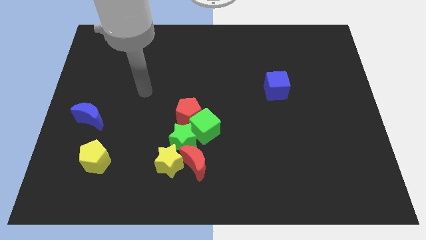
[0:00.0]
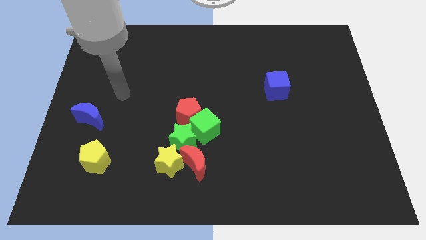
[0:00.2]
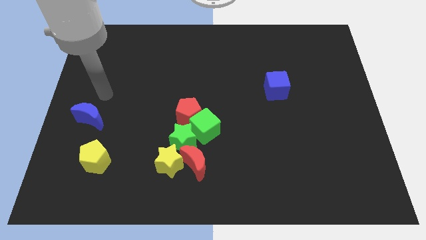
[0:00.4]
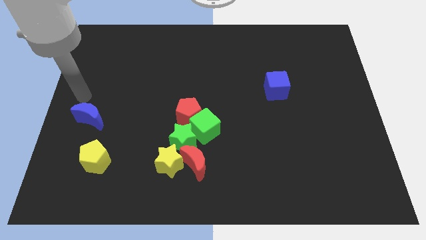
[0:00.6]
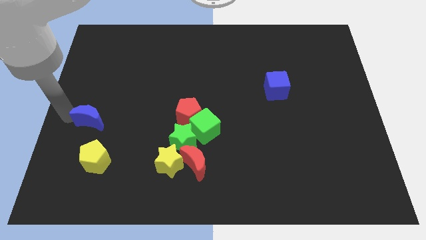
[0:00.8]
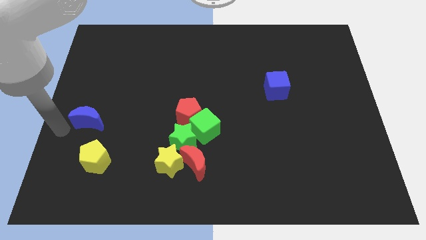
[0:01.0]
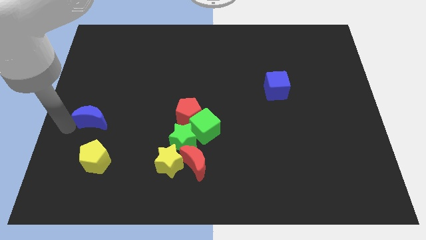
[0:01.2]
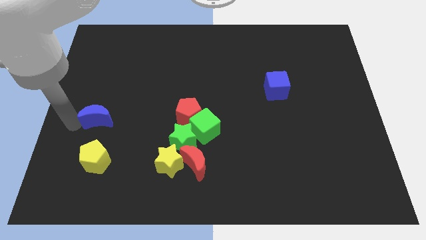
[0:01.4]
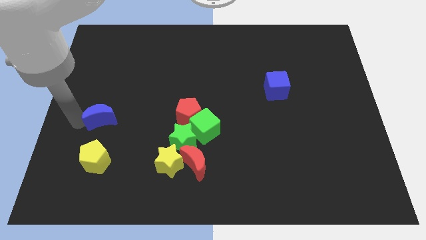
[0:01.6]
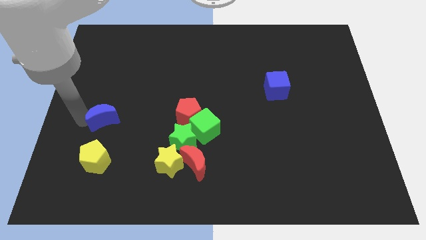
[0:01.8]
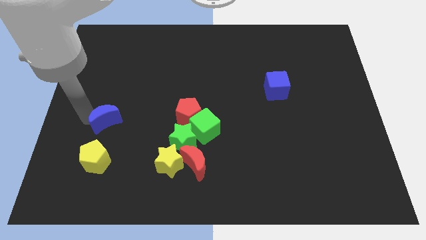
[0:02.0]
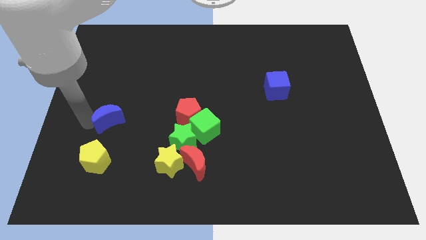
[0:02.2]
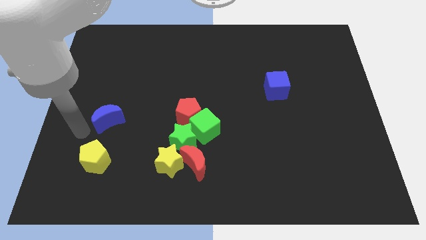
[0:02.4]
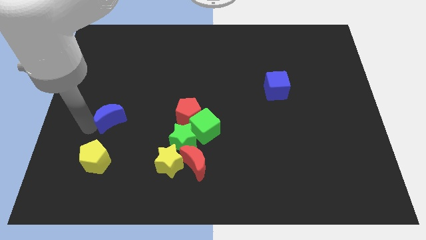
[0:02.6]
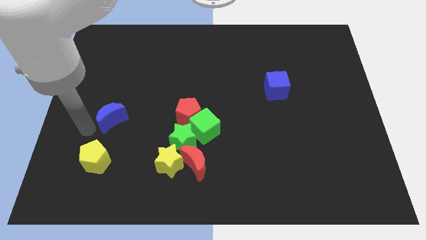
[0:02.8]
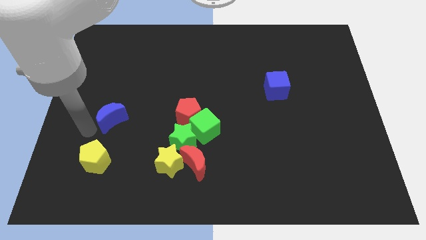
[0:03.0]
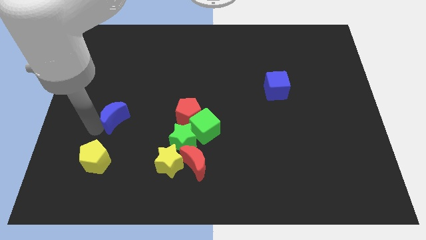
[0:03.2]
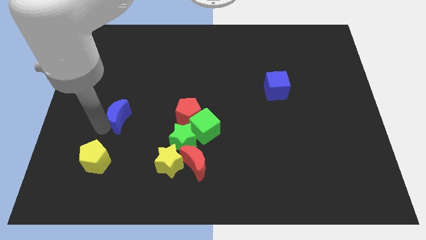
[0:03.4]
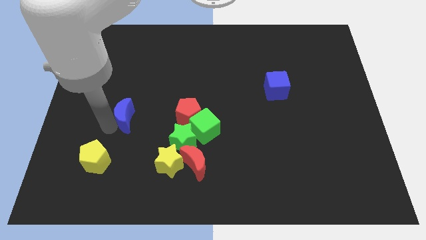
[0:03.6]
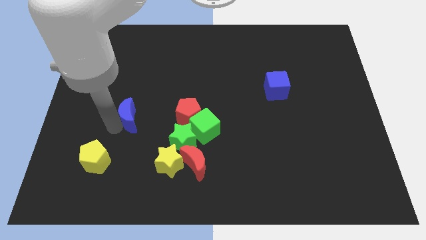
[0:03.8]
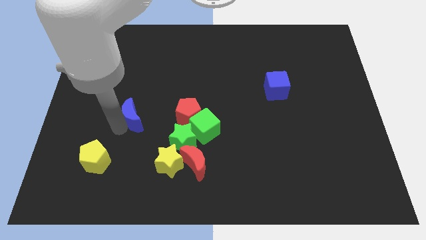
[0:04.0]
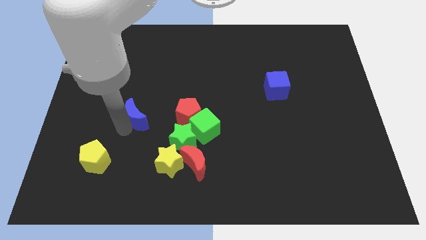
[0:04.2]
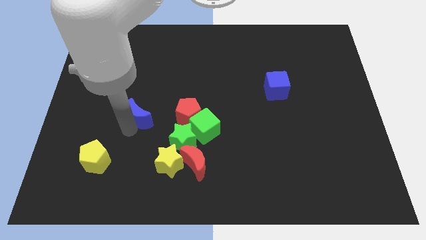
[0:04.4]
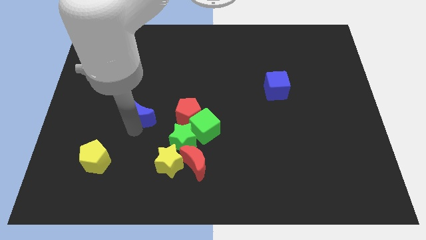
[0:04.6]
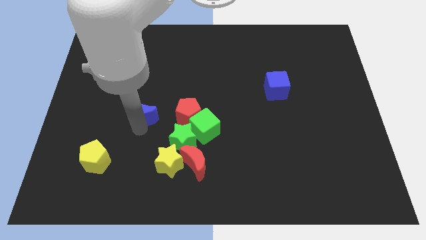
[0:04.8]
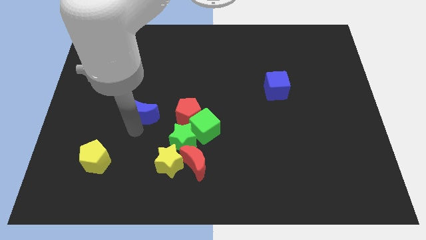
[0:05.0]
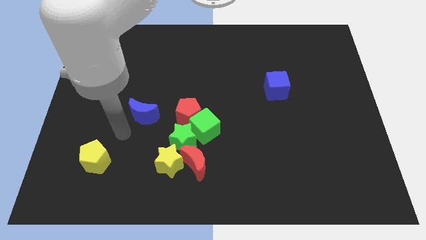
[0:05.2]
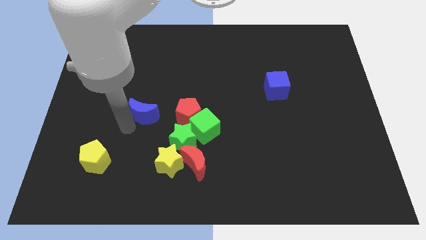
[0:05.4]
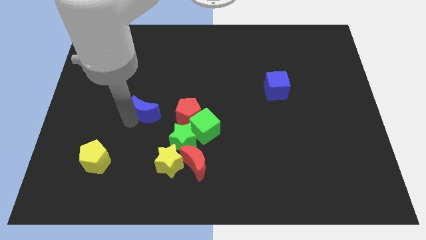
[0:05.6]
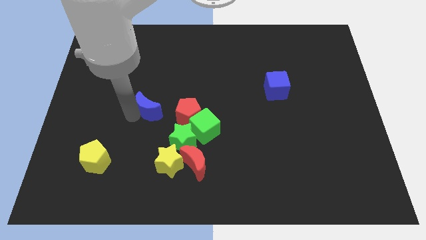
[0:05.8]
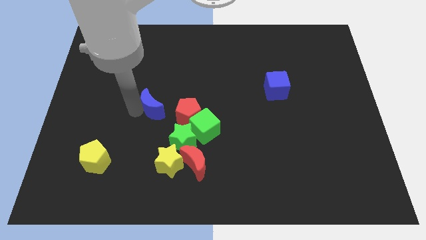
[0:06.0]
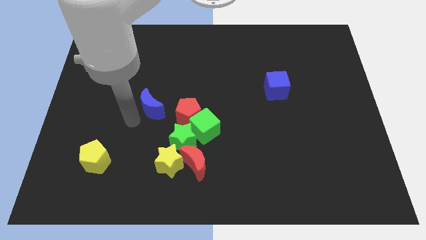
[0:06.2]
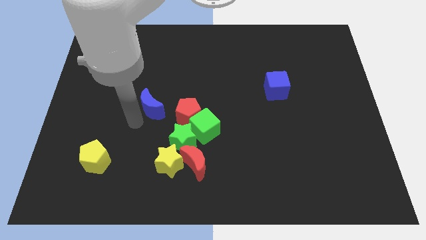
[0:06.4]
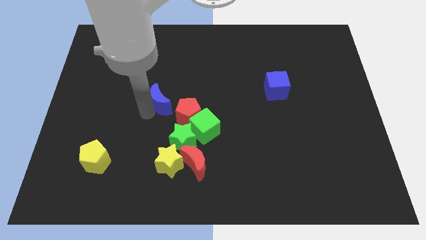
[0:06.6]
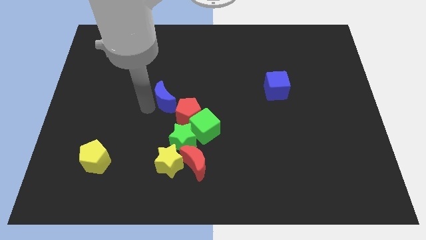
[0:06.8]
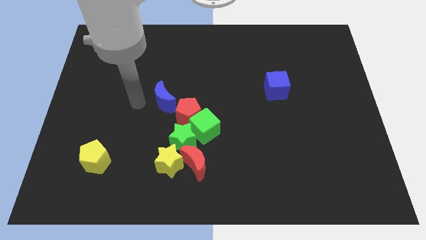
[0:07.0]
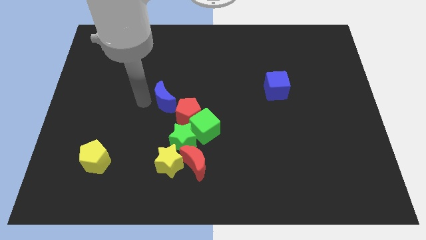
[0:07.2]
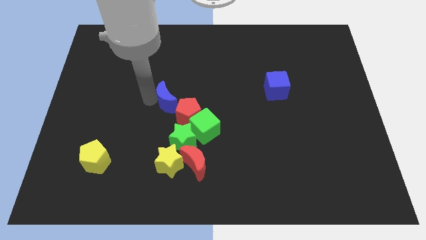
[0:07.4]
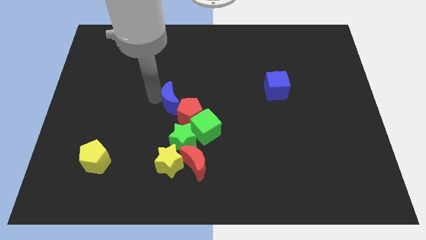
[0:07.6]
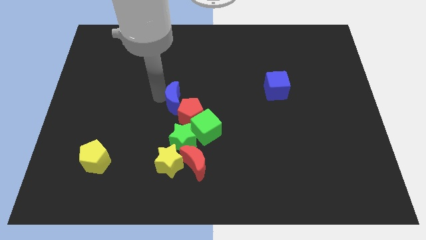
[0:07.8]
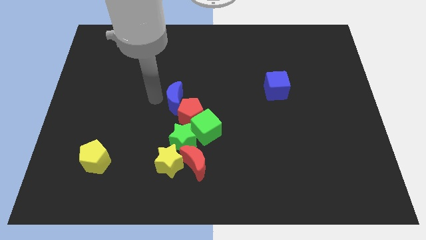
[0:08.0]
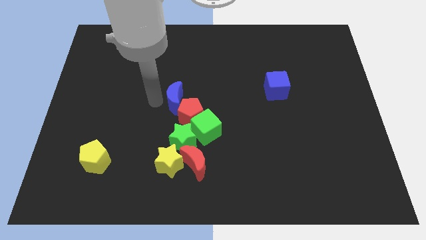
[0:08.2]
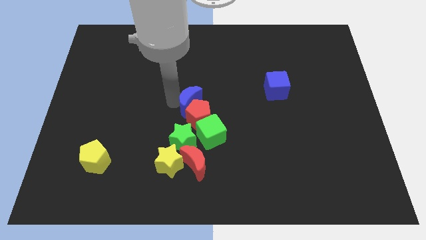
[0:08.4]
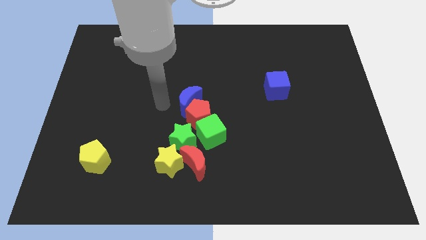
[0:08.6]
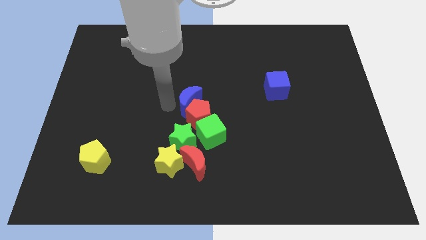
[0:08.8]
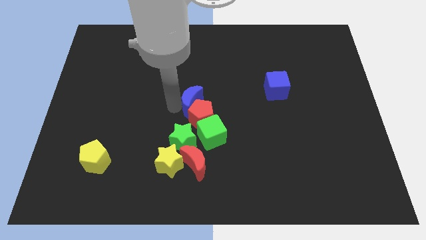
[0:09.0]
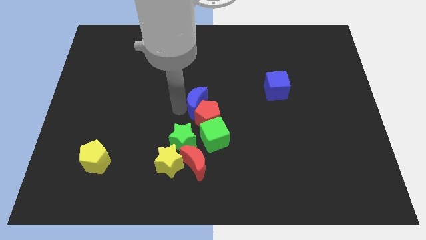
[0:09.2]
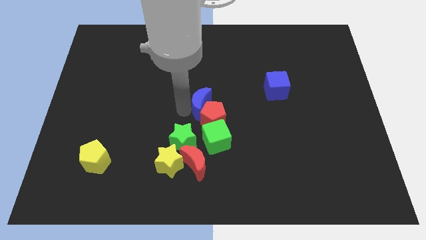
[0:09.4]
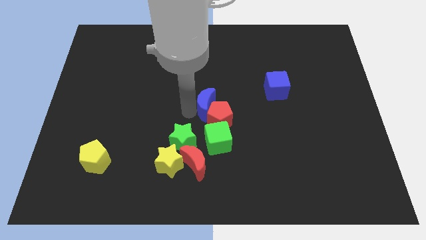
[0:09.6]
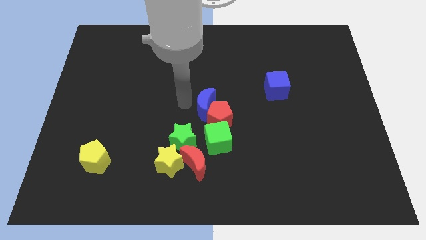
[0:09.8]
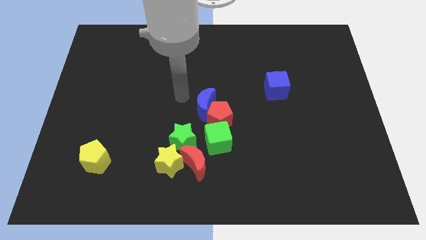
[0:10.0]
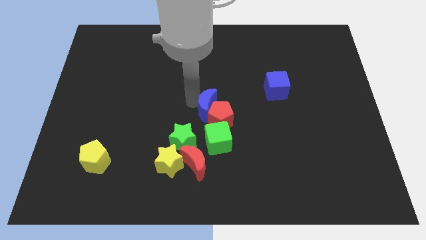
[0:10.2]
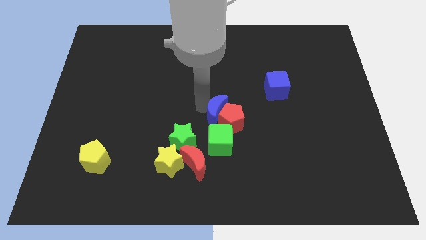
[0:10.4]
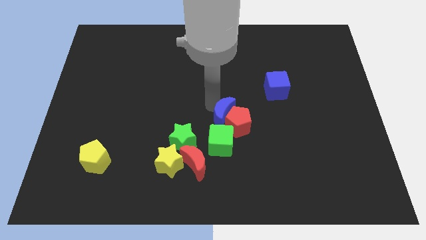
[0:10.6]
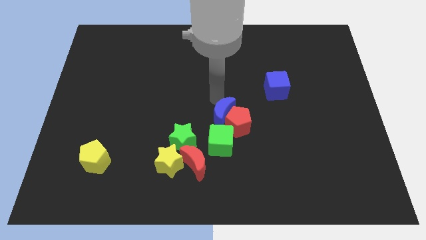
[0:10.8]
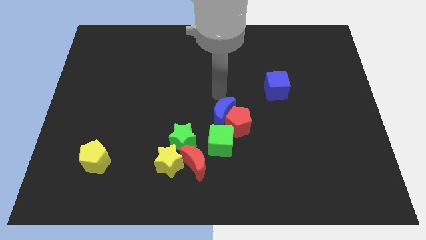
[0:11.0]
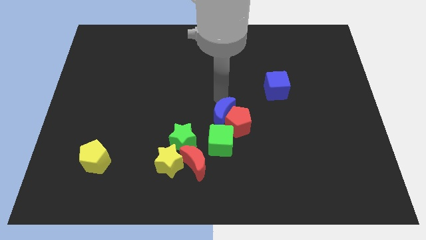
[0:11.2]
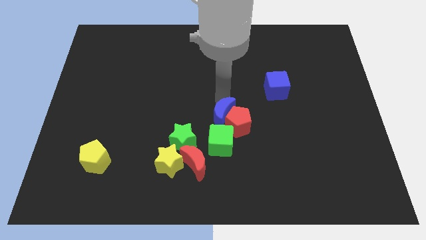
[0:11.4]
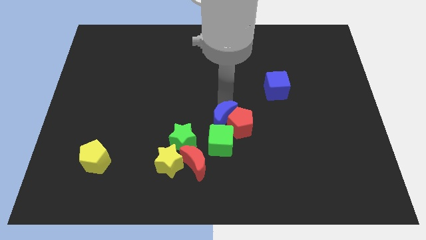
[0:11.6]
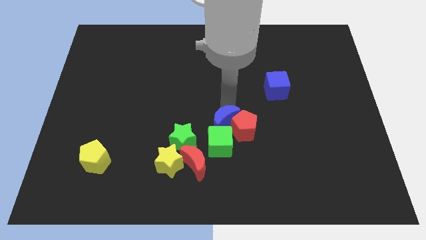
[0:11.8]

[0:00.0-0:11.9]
move the blue moon to the top right side of the red moon

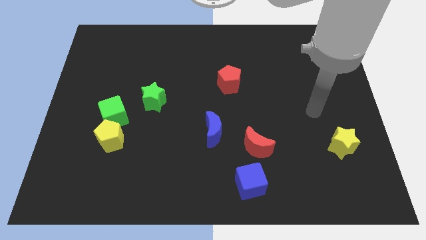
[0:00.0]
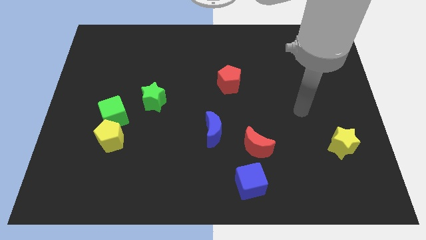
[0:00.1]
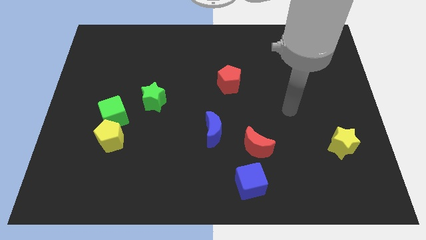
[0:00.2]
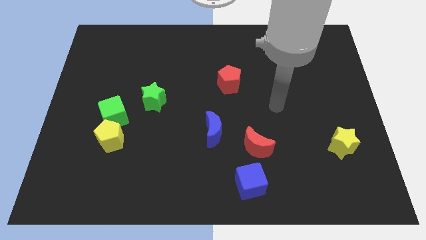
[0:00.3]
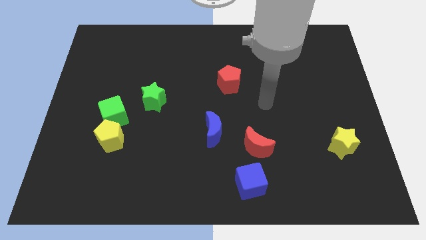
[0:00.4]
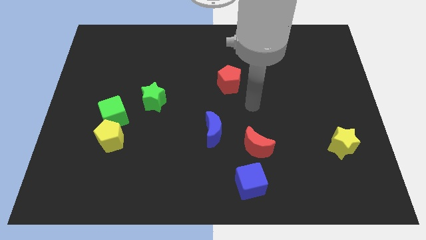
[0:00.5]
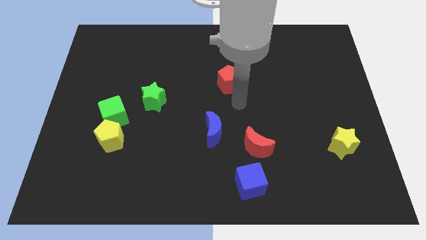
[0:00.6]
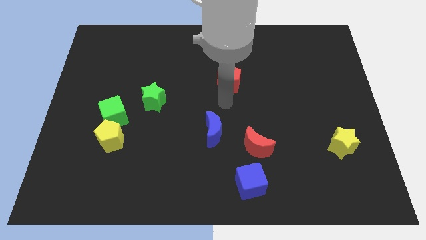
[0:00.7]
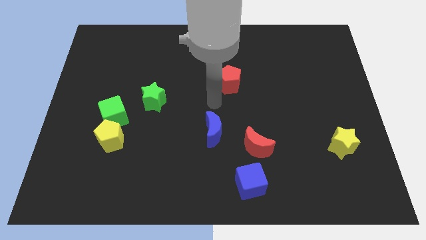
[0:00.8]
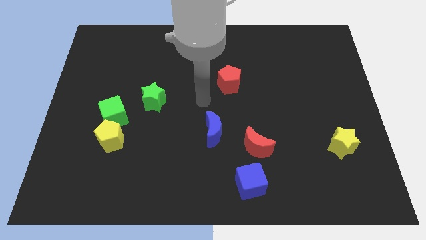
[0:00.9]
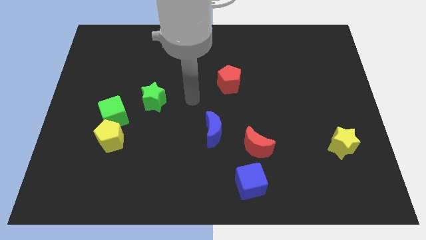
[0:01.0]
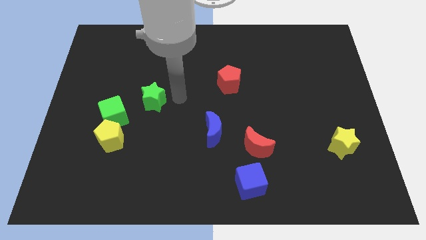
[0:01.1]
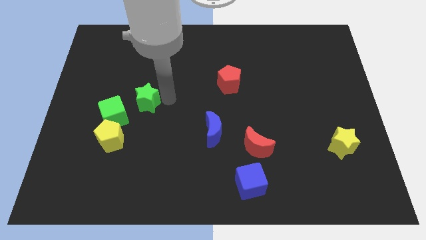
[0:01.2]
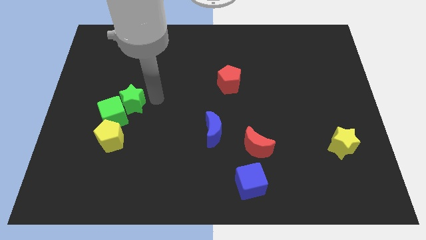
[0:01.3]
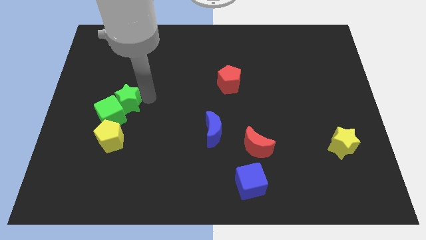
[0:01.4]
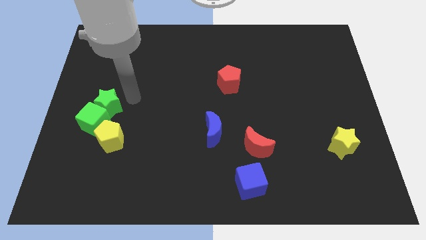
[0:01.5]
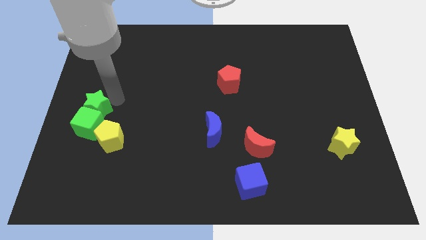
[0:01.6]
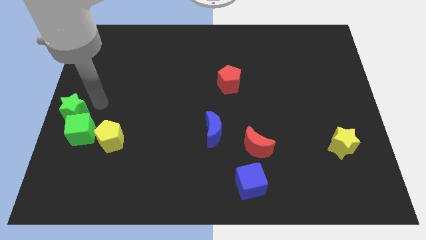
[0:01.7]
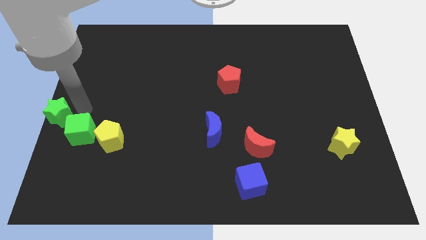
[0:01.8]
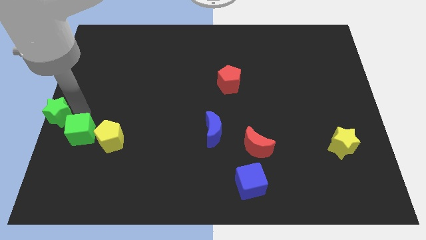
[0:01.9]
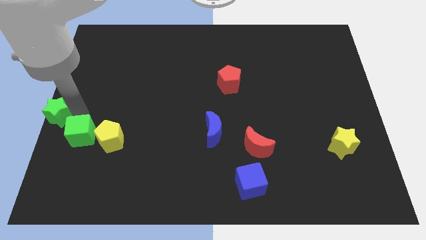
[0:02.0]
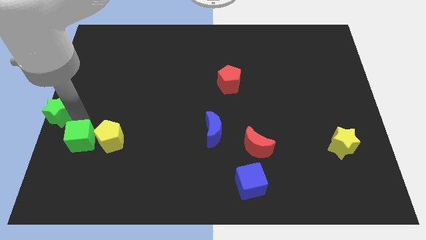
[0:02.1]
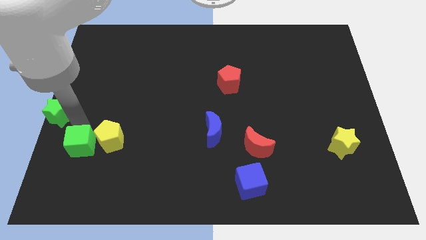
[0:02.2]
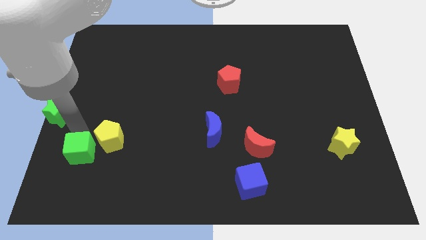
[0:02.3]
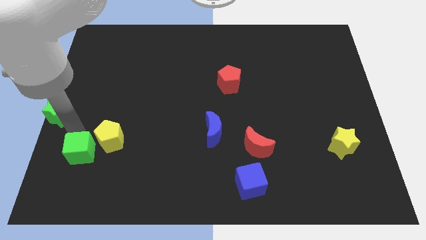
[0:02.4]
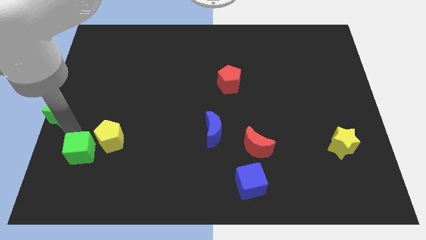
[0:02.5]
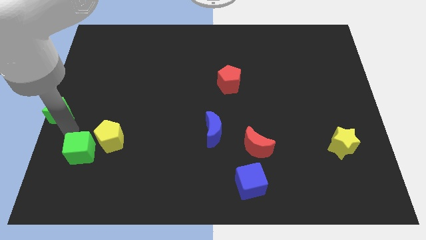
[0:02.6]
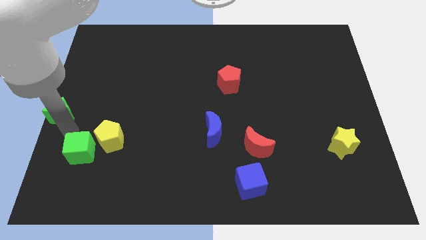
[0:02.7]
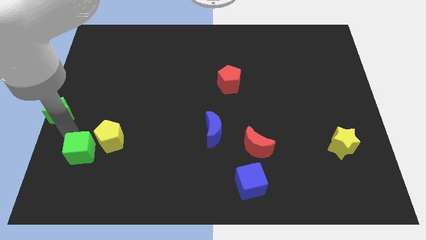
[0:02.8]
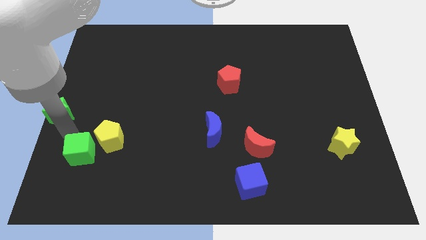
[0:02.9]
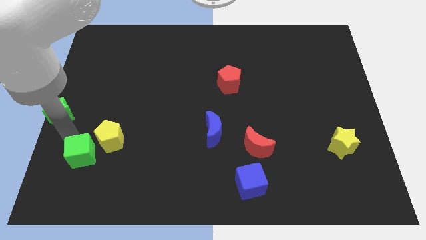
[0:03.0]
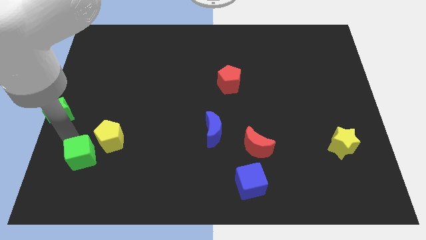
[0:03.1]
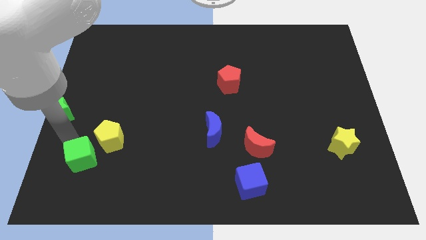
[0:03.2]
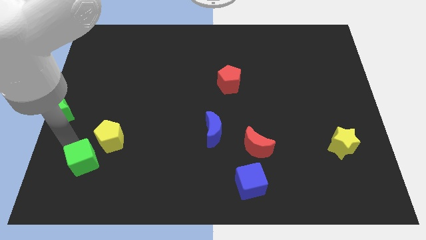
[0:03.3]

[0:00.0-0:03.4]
push the green cube to the bottom side of the yellow pentagon
